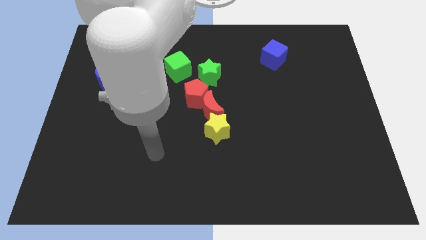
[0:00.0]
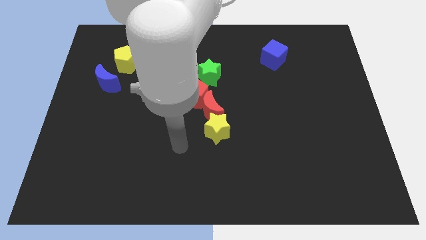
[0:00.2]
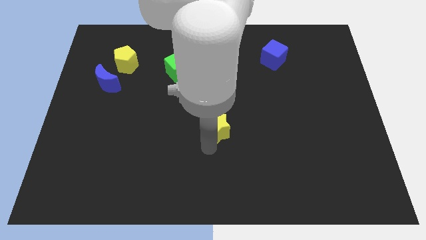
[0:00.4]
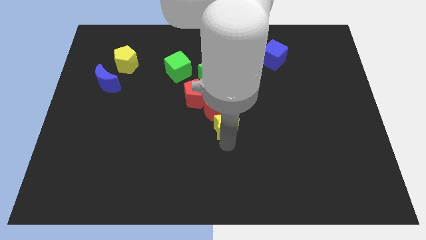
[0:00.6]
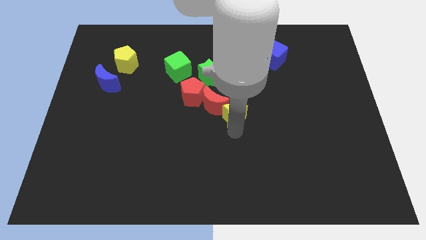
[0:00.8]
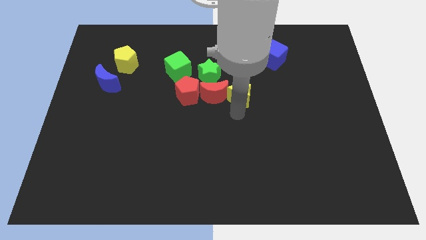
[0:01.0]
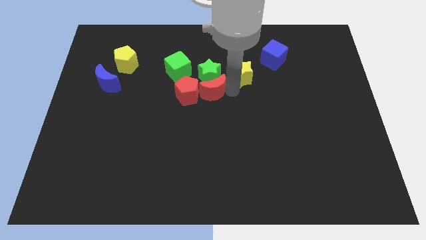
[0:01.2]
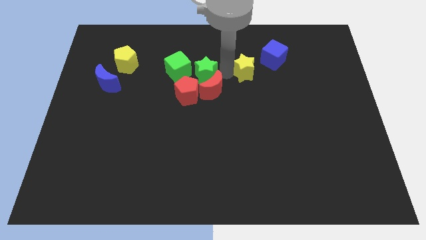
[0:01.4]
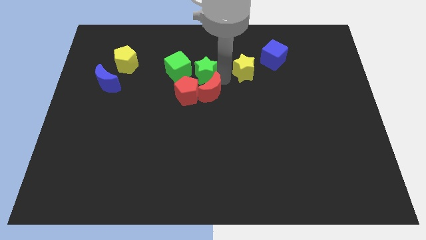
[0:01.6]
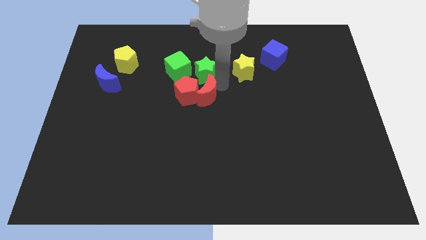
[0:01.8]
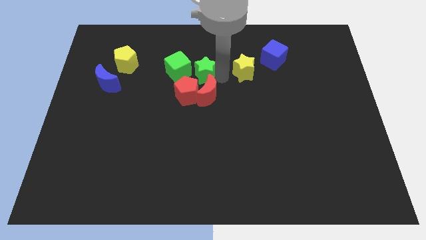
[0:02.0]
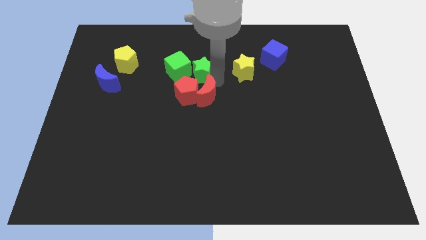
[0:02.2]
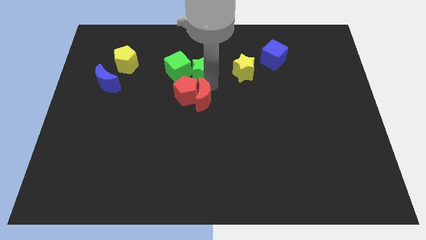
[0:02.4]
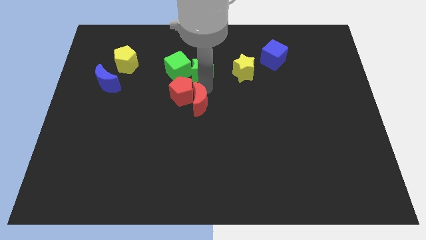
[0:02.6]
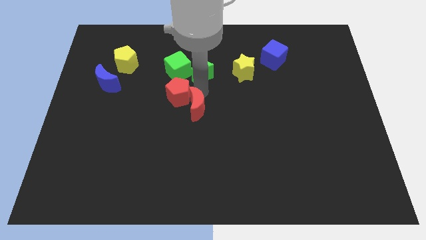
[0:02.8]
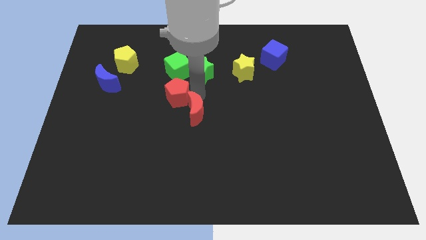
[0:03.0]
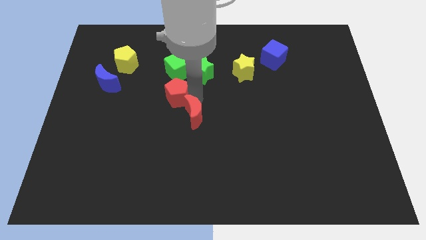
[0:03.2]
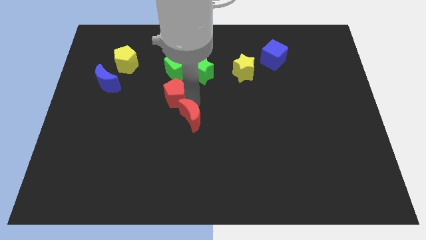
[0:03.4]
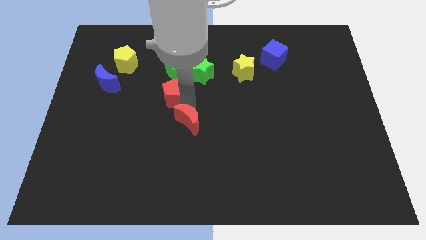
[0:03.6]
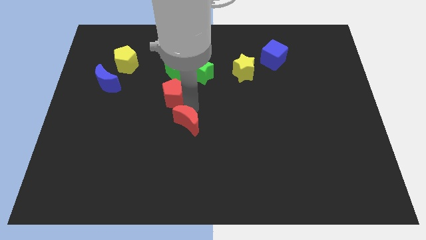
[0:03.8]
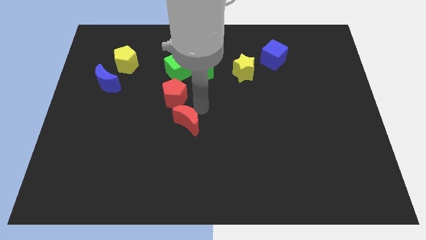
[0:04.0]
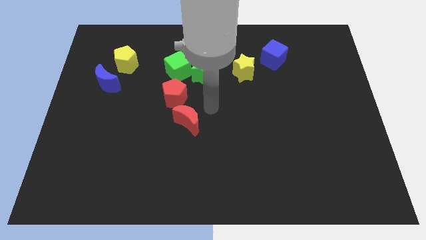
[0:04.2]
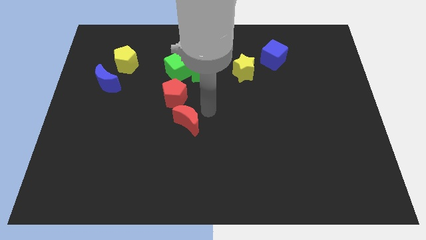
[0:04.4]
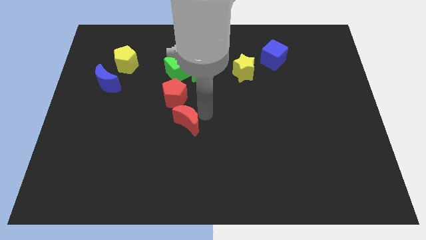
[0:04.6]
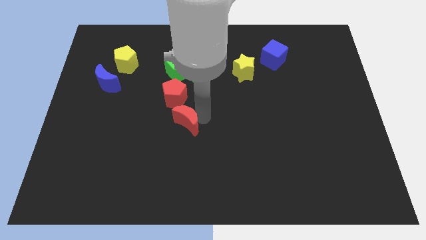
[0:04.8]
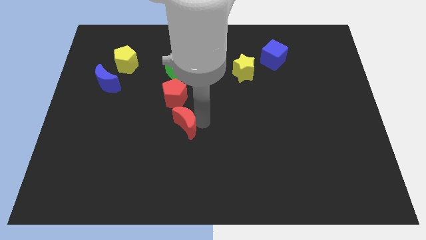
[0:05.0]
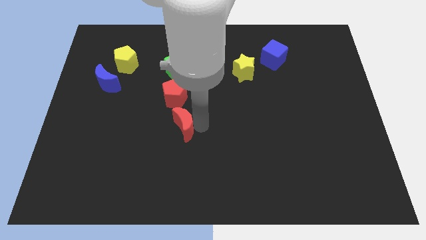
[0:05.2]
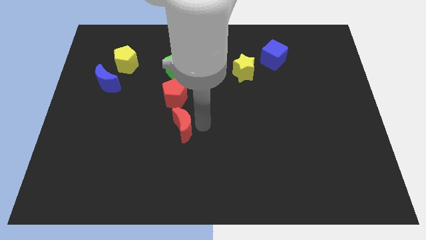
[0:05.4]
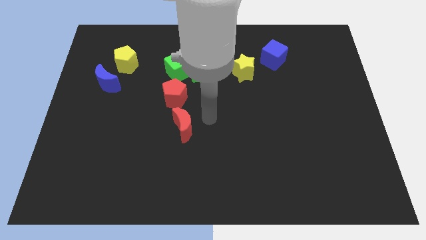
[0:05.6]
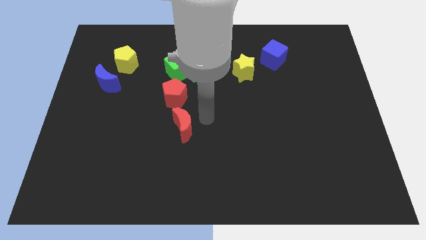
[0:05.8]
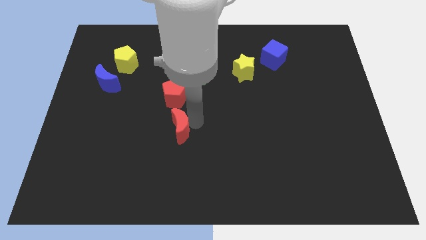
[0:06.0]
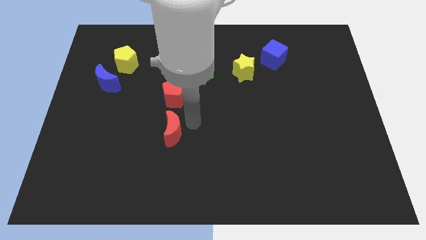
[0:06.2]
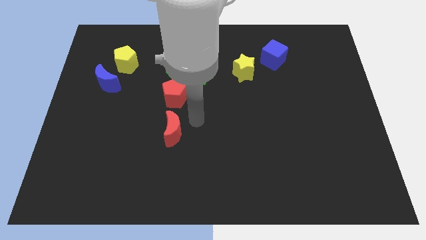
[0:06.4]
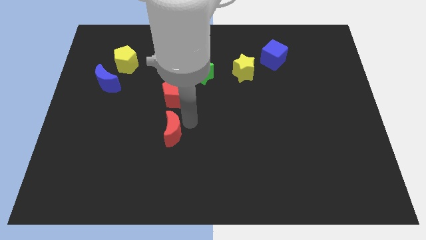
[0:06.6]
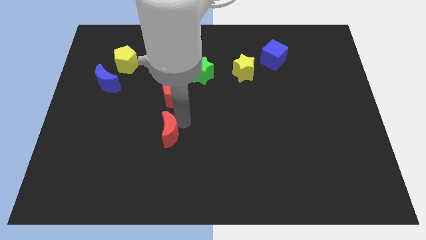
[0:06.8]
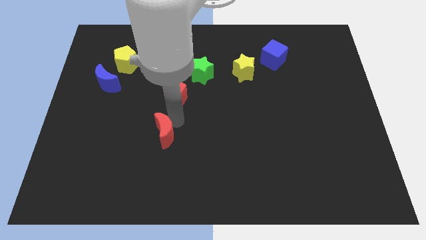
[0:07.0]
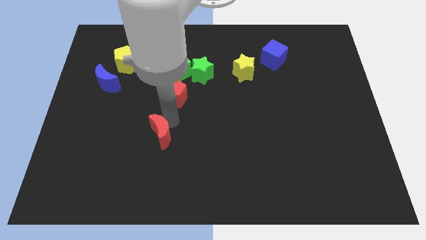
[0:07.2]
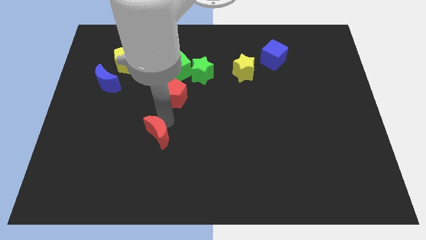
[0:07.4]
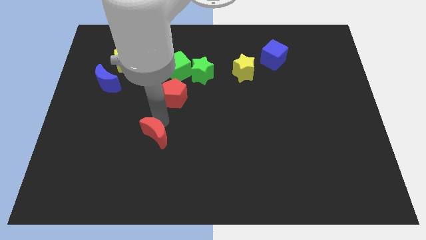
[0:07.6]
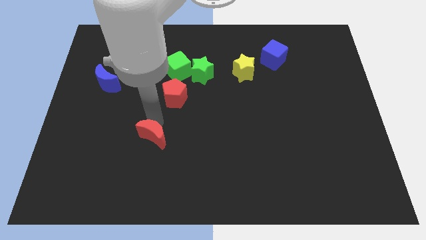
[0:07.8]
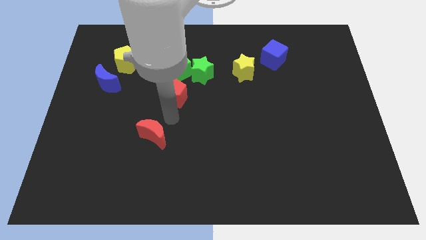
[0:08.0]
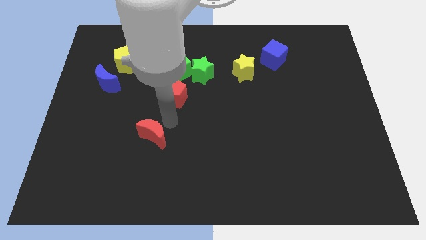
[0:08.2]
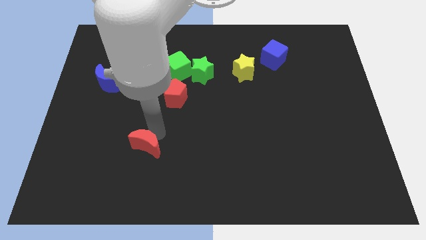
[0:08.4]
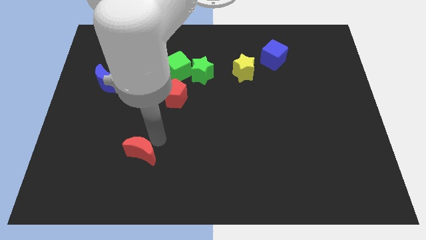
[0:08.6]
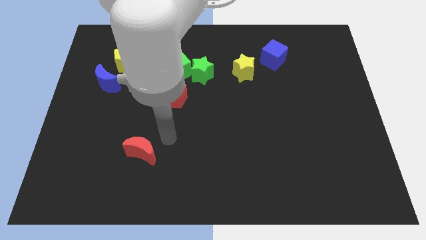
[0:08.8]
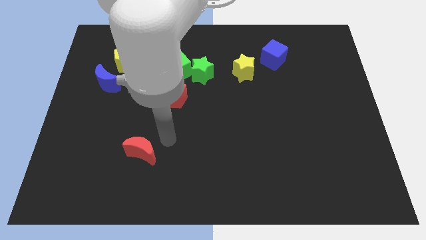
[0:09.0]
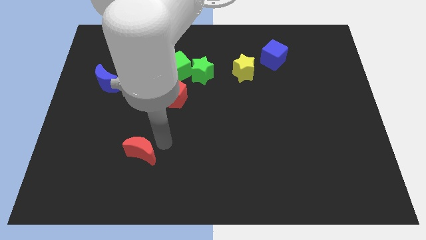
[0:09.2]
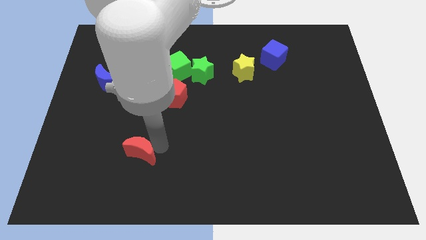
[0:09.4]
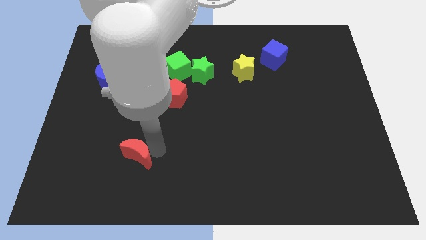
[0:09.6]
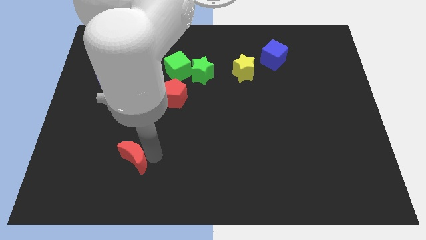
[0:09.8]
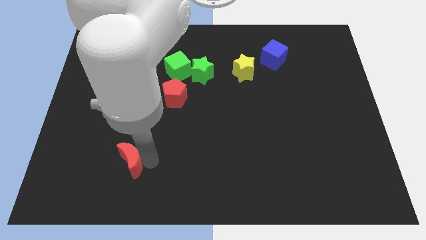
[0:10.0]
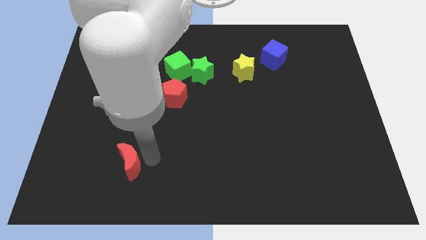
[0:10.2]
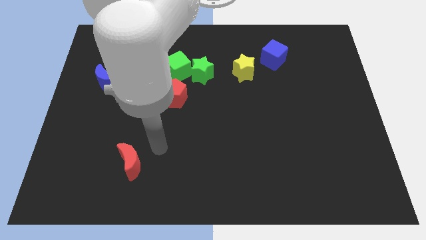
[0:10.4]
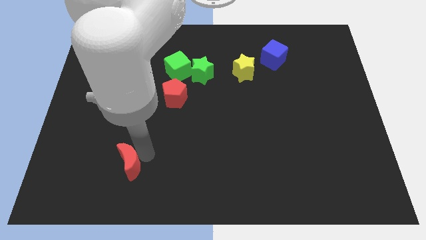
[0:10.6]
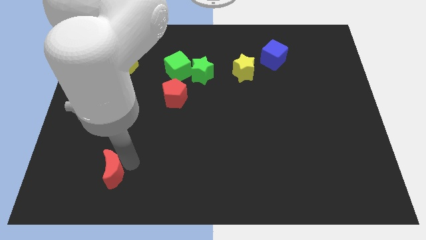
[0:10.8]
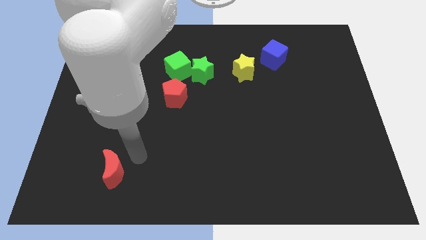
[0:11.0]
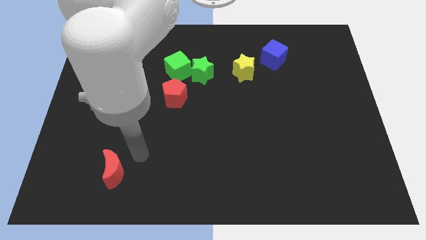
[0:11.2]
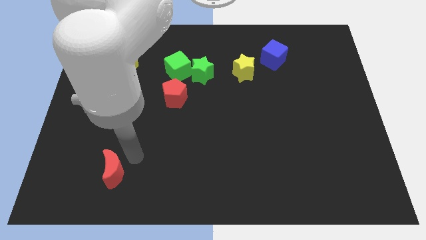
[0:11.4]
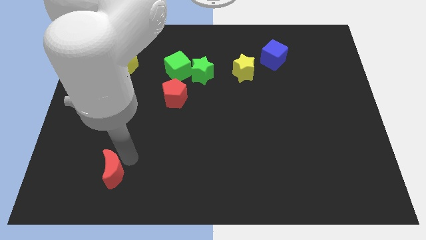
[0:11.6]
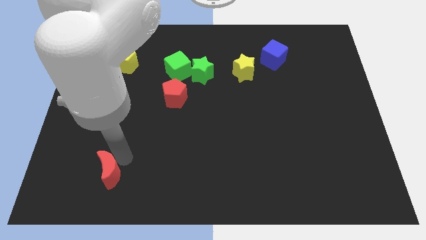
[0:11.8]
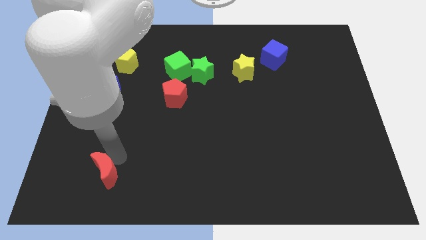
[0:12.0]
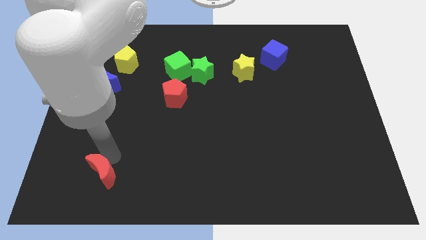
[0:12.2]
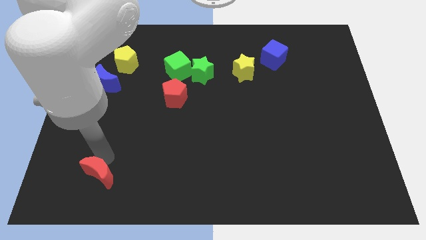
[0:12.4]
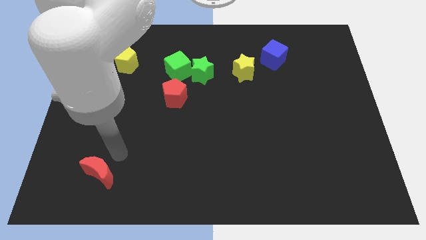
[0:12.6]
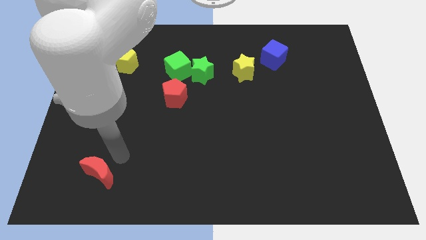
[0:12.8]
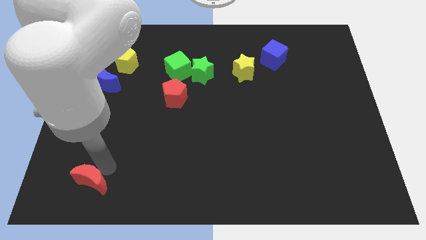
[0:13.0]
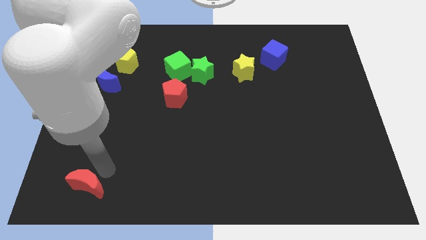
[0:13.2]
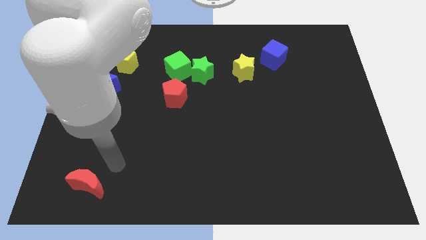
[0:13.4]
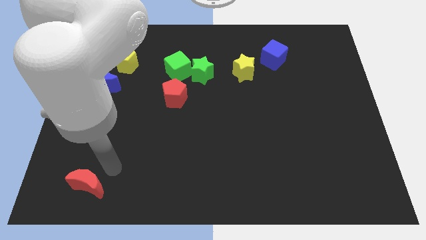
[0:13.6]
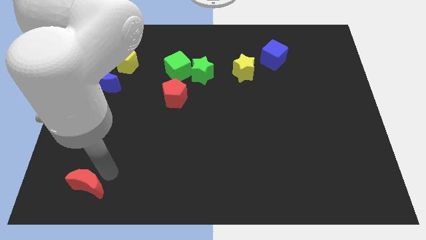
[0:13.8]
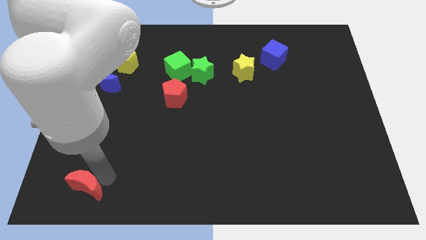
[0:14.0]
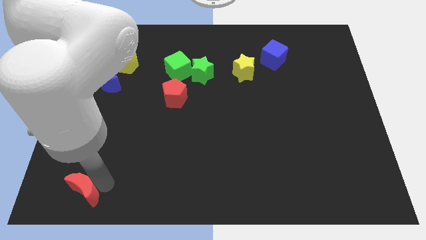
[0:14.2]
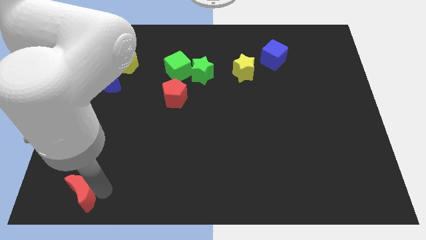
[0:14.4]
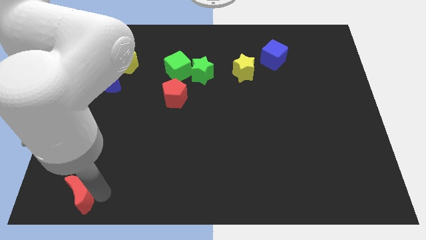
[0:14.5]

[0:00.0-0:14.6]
move the red moon to the bottom left
